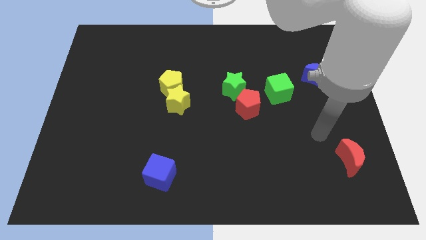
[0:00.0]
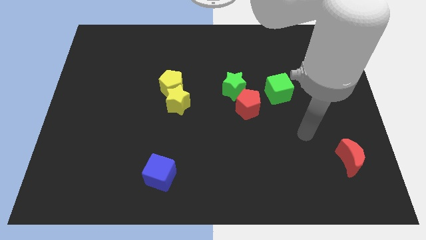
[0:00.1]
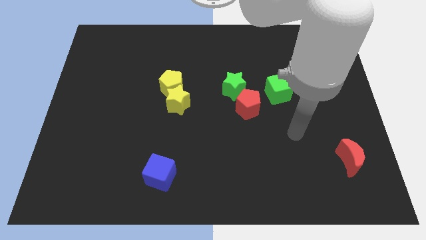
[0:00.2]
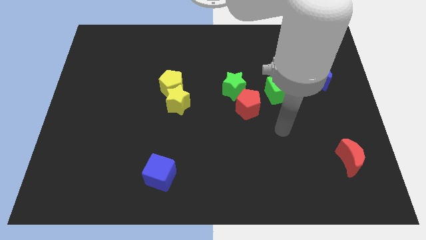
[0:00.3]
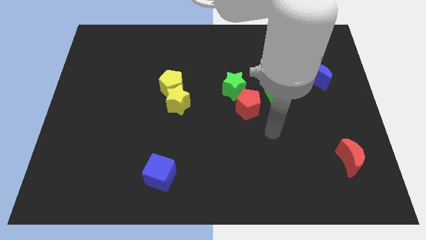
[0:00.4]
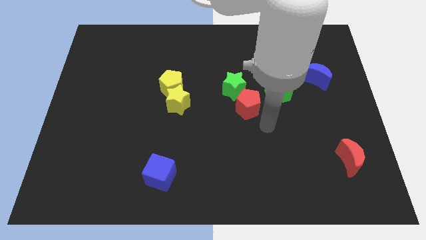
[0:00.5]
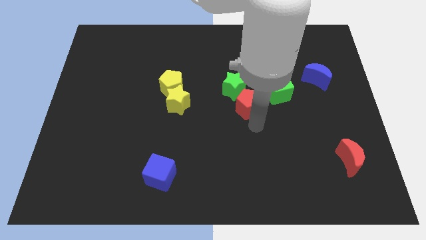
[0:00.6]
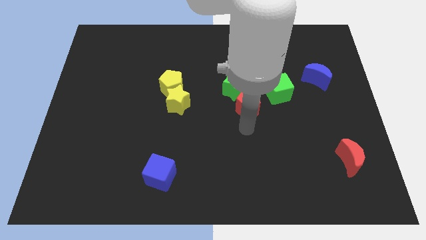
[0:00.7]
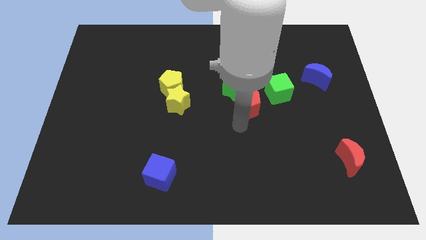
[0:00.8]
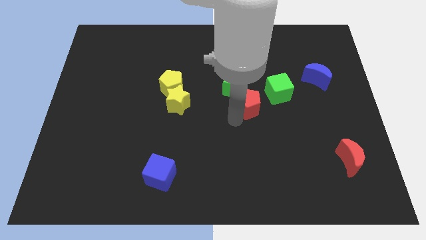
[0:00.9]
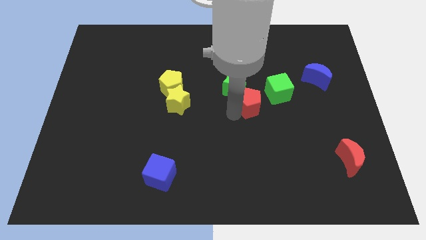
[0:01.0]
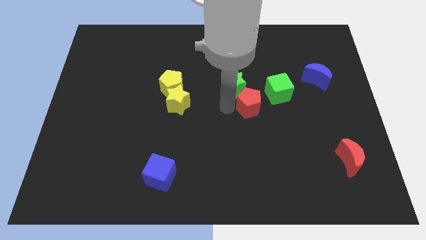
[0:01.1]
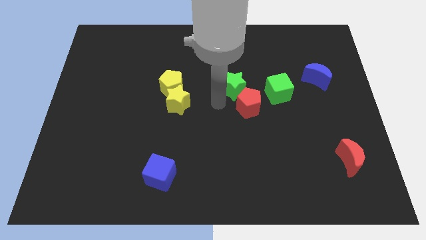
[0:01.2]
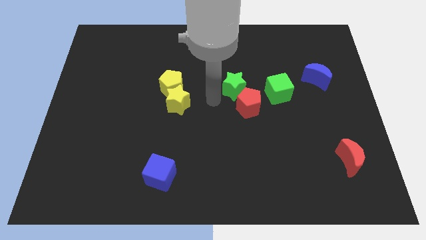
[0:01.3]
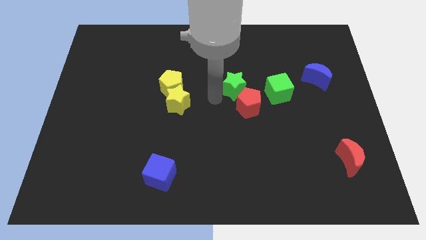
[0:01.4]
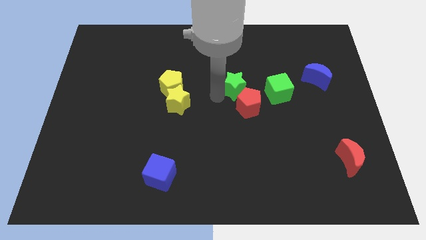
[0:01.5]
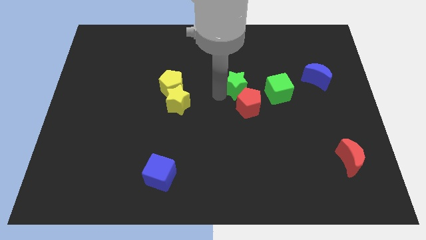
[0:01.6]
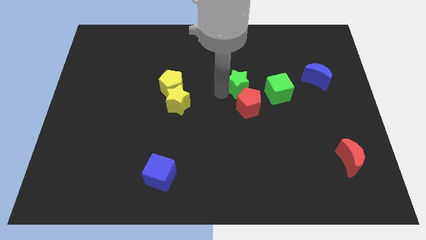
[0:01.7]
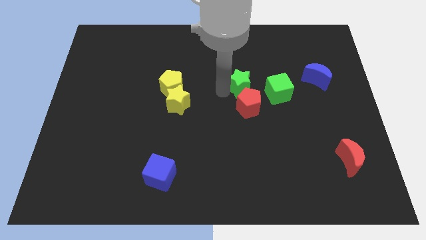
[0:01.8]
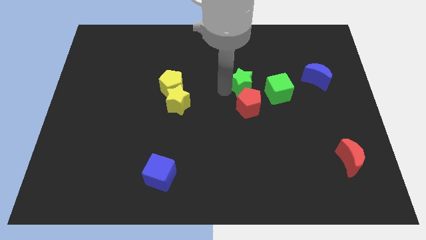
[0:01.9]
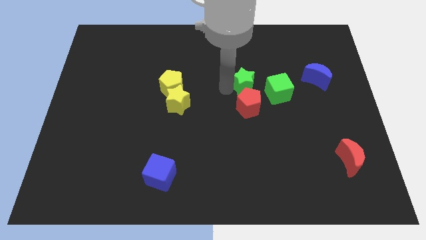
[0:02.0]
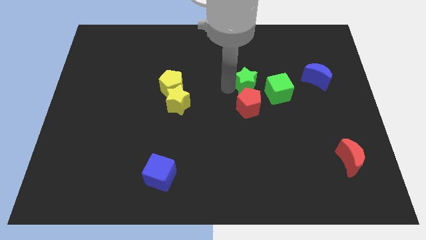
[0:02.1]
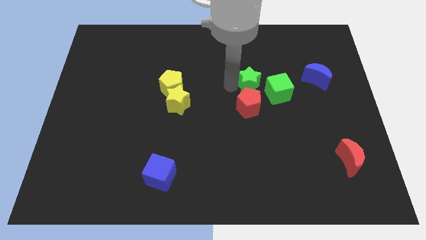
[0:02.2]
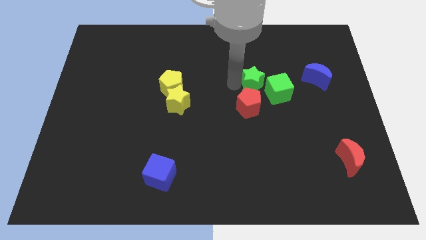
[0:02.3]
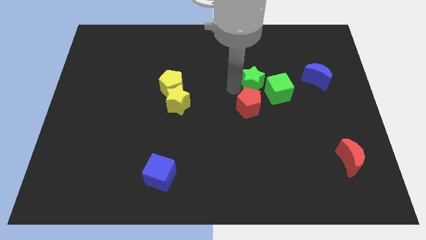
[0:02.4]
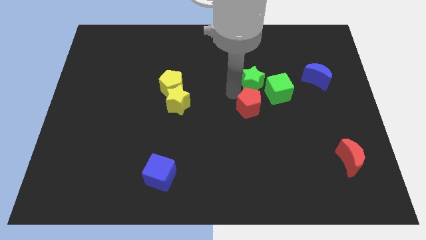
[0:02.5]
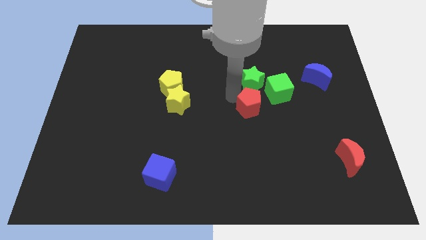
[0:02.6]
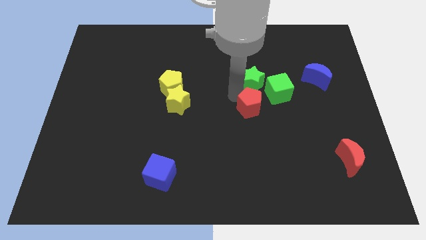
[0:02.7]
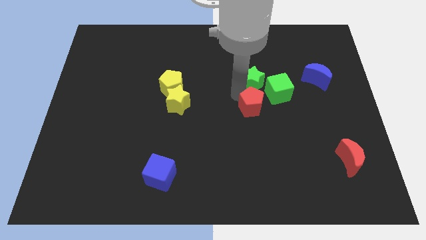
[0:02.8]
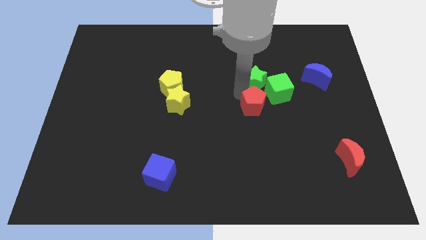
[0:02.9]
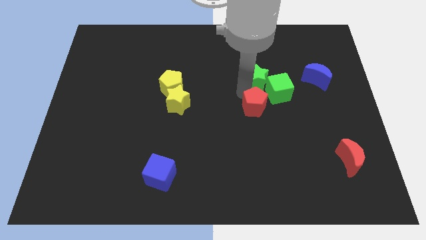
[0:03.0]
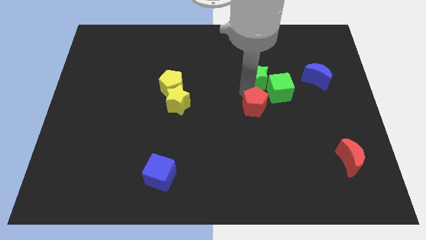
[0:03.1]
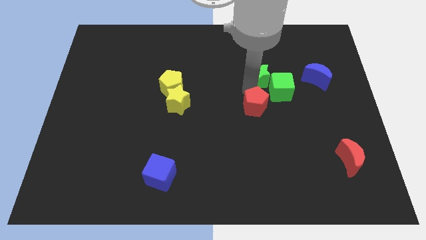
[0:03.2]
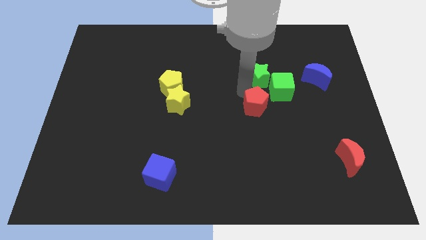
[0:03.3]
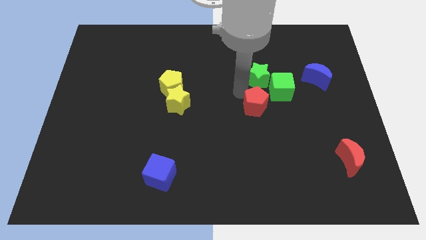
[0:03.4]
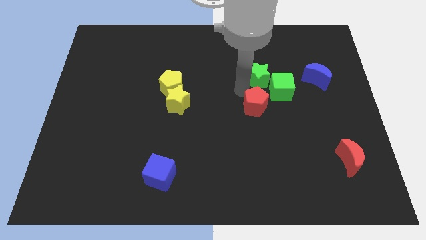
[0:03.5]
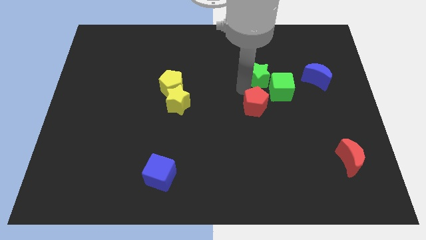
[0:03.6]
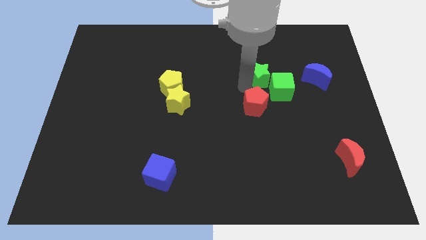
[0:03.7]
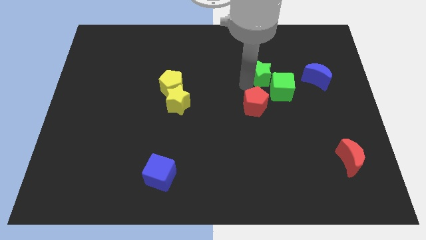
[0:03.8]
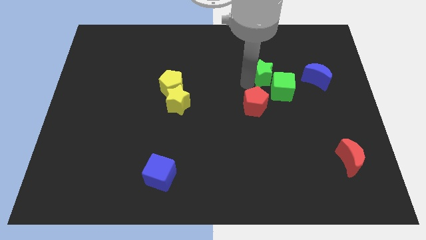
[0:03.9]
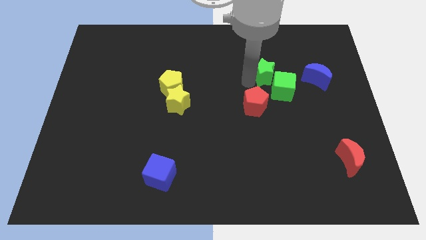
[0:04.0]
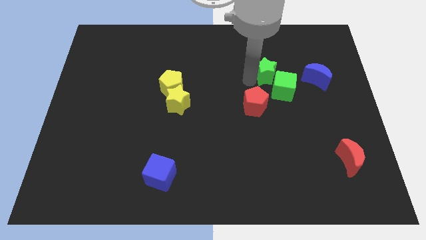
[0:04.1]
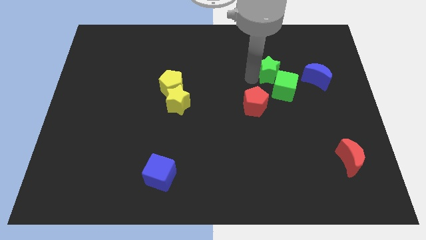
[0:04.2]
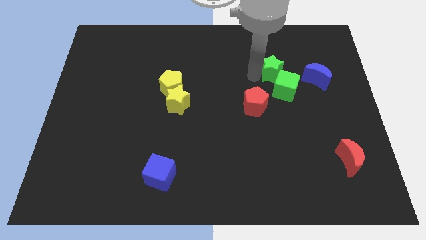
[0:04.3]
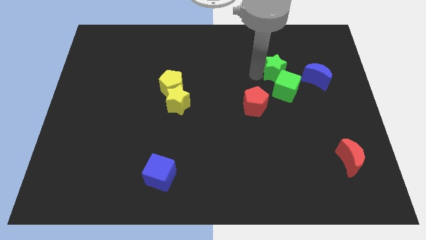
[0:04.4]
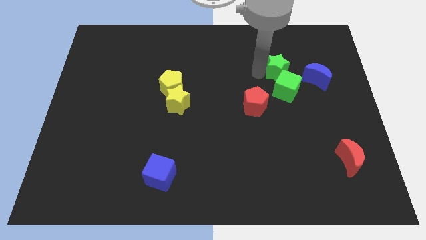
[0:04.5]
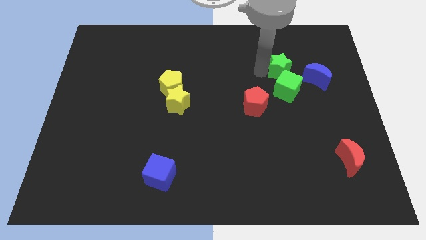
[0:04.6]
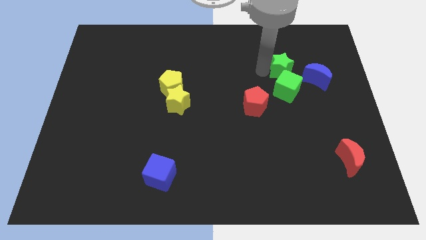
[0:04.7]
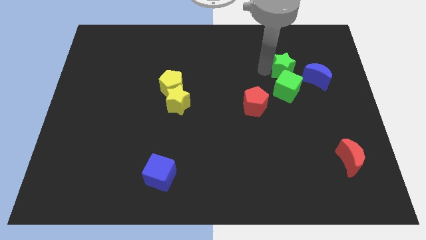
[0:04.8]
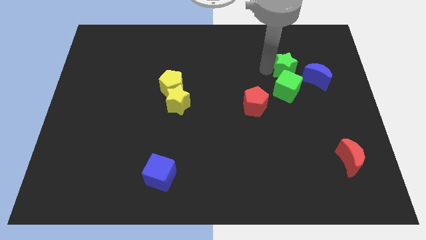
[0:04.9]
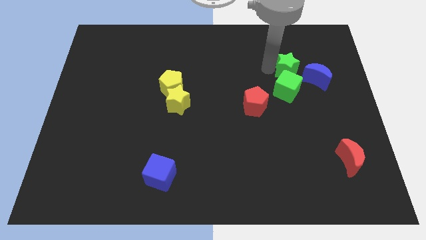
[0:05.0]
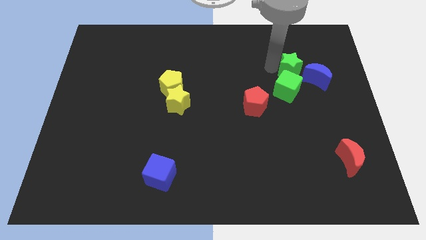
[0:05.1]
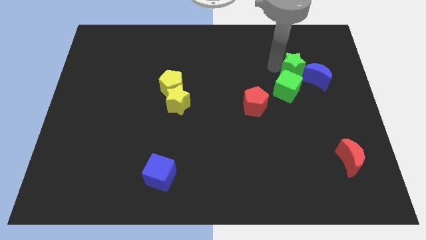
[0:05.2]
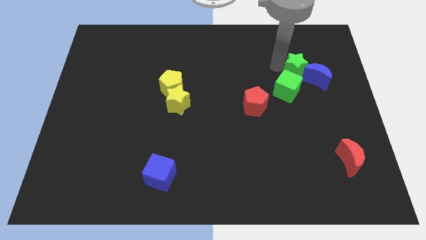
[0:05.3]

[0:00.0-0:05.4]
move the green star to the blue moon

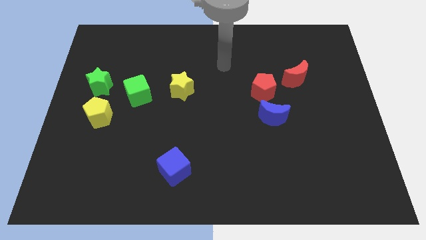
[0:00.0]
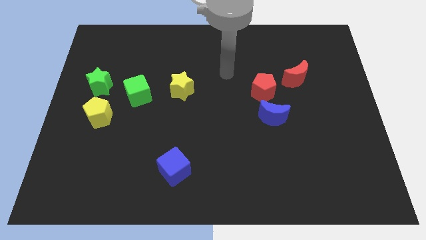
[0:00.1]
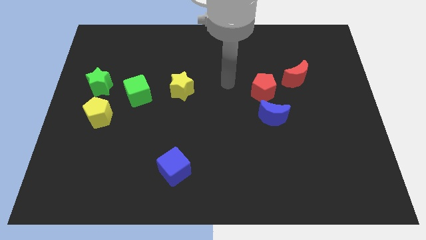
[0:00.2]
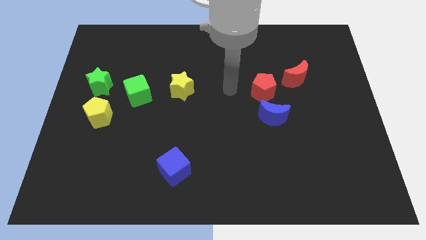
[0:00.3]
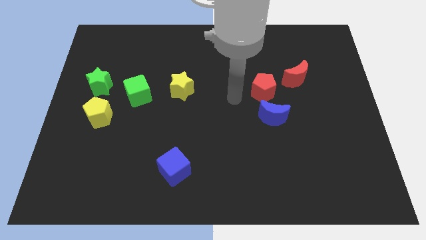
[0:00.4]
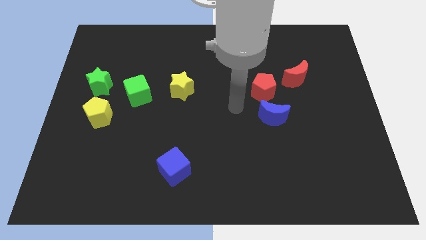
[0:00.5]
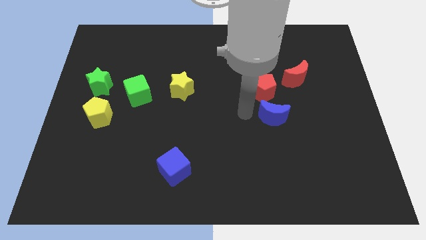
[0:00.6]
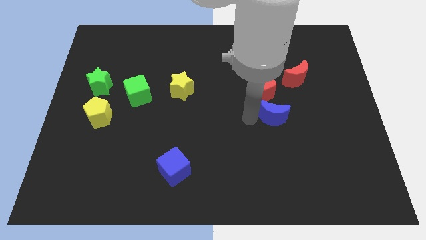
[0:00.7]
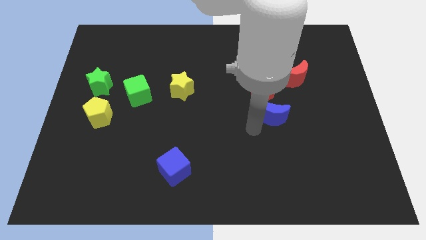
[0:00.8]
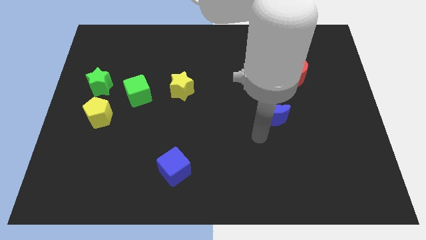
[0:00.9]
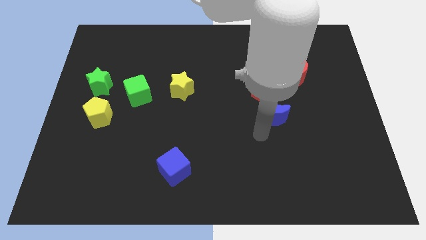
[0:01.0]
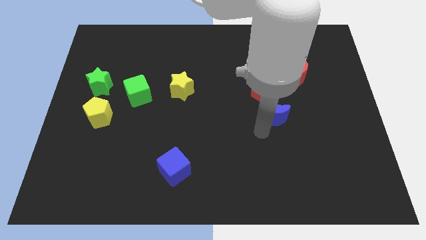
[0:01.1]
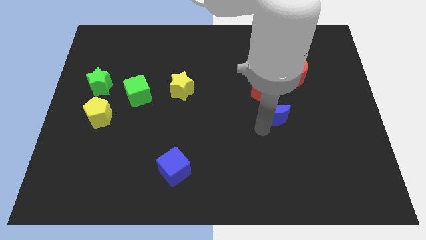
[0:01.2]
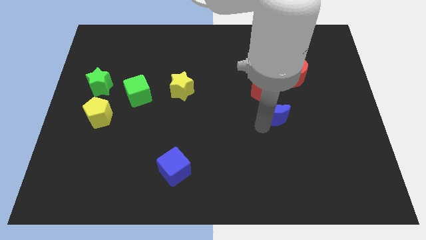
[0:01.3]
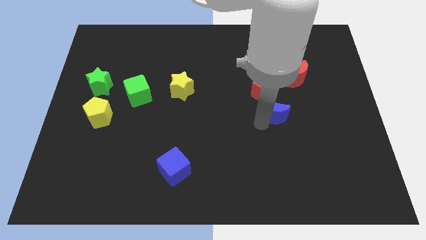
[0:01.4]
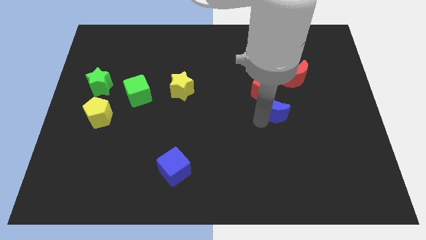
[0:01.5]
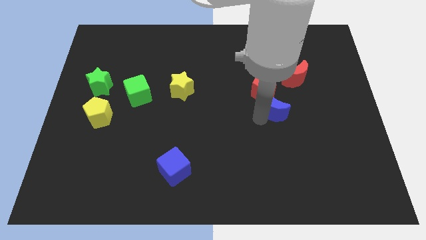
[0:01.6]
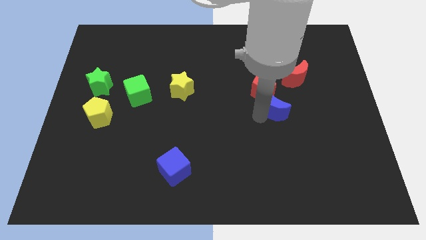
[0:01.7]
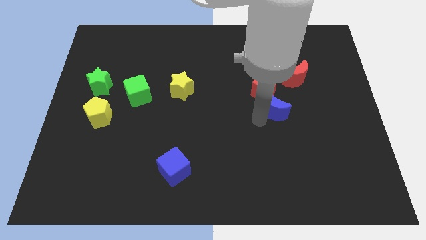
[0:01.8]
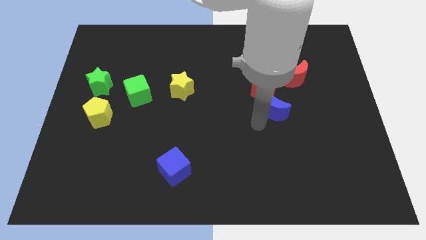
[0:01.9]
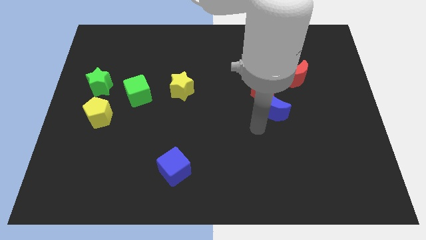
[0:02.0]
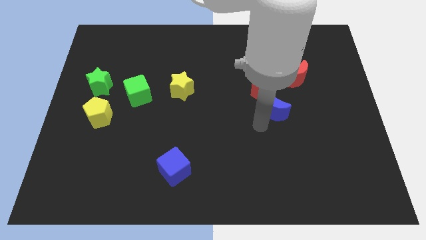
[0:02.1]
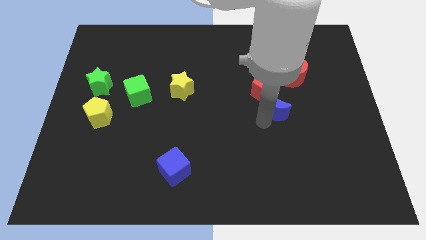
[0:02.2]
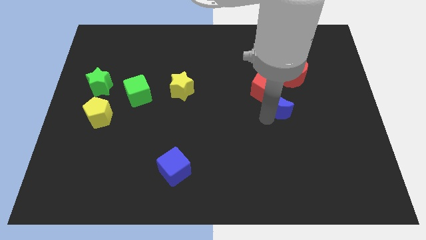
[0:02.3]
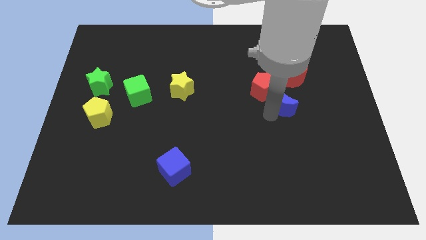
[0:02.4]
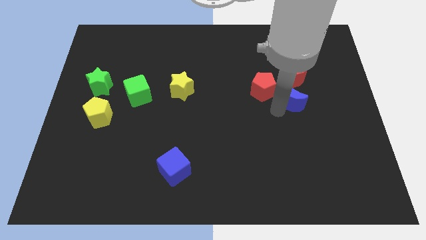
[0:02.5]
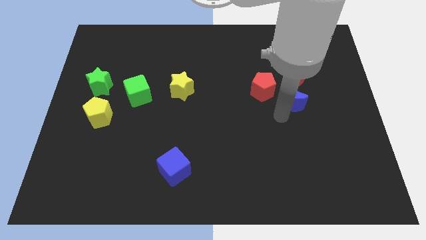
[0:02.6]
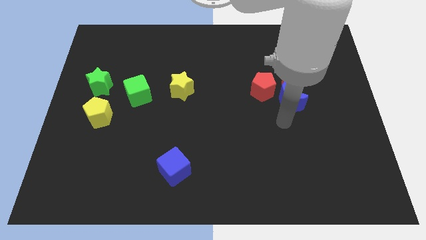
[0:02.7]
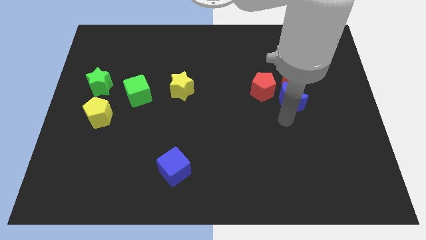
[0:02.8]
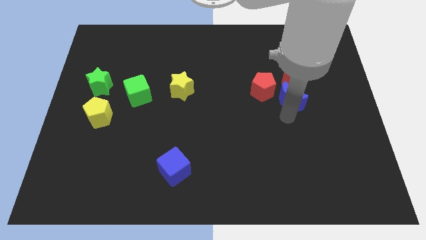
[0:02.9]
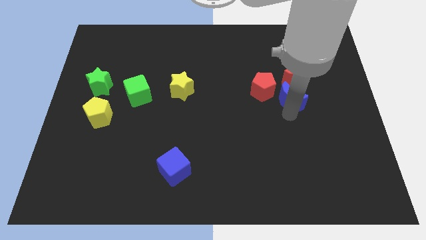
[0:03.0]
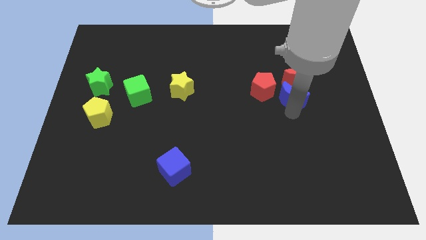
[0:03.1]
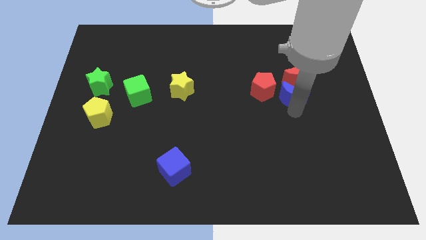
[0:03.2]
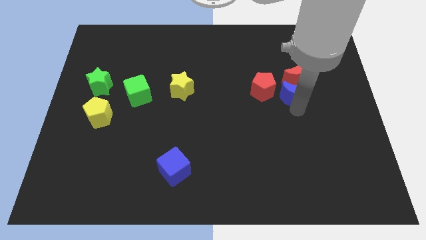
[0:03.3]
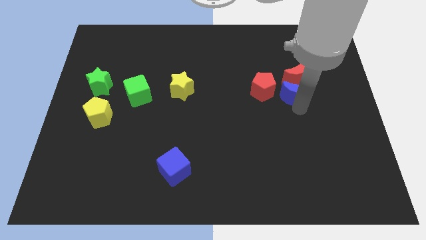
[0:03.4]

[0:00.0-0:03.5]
push the blue moon next to the red moon
